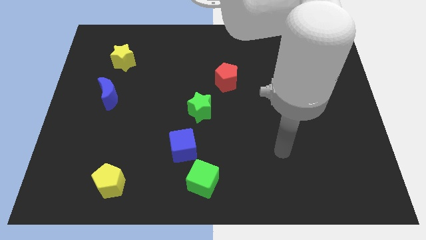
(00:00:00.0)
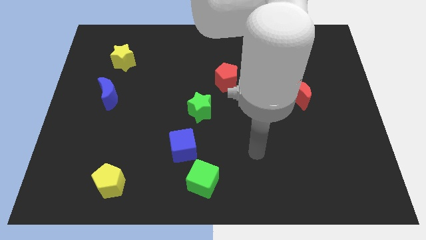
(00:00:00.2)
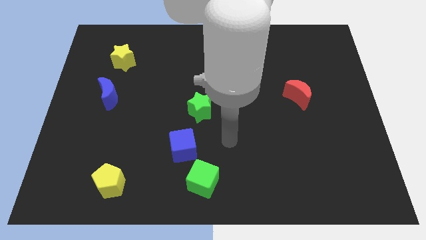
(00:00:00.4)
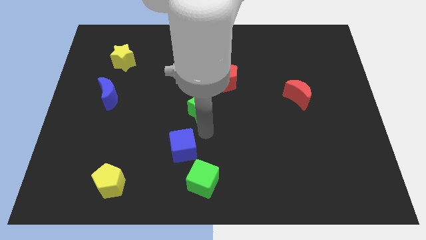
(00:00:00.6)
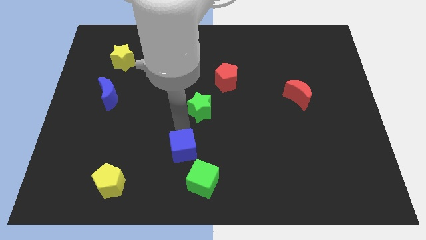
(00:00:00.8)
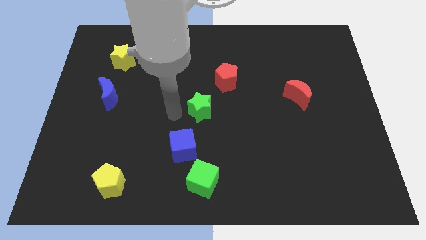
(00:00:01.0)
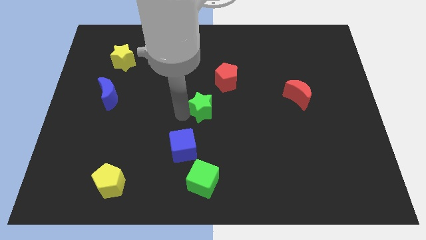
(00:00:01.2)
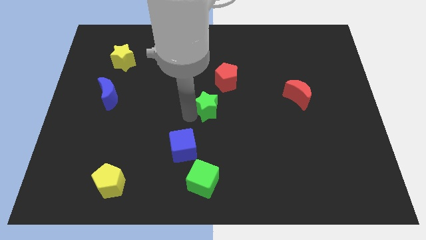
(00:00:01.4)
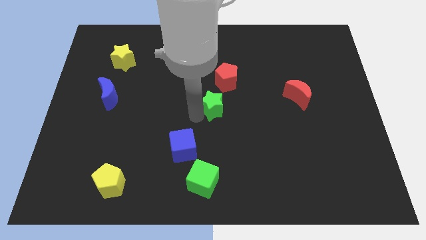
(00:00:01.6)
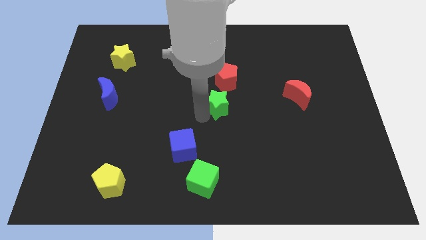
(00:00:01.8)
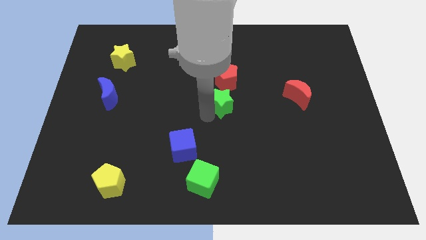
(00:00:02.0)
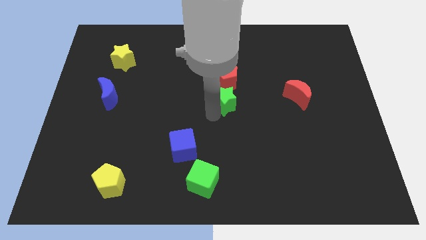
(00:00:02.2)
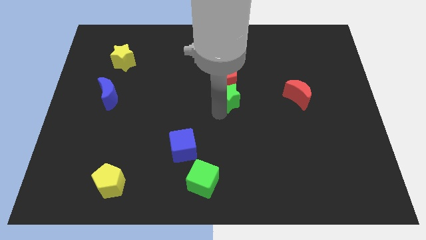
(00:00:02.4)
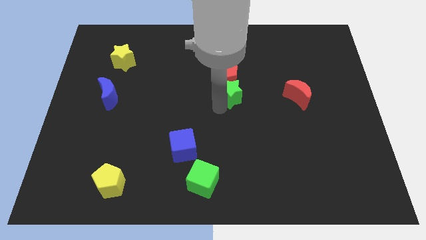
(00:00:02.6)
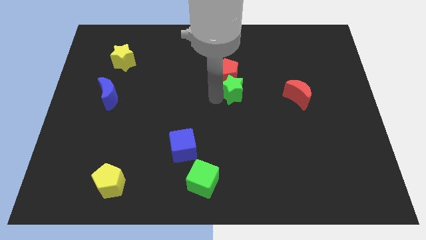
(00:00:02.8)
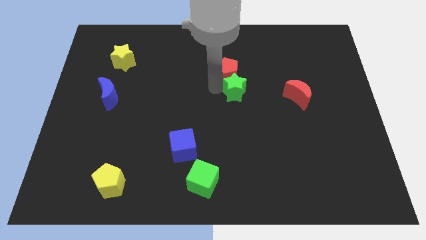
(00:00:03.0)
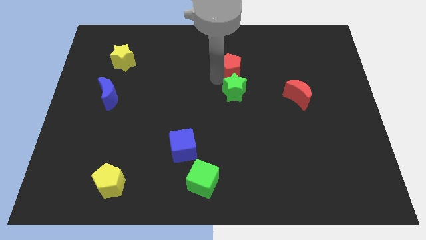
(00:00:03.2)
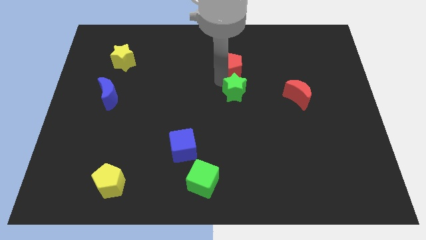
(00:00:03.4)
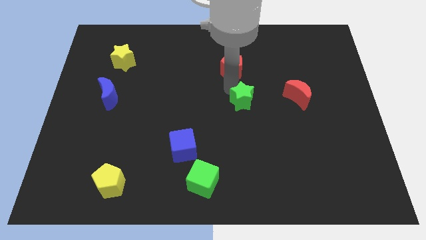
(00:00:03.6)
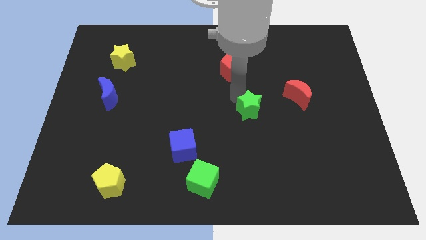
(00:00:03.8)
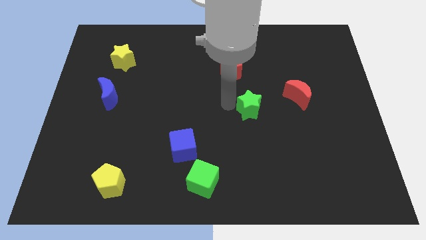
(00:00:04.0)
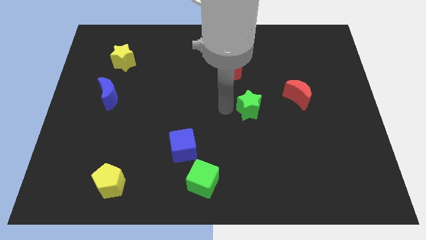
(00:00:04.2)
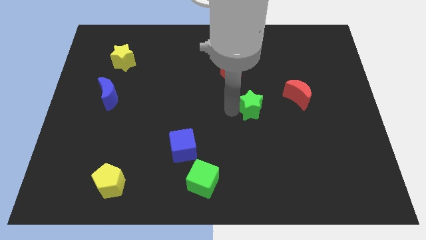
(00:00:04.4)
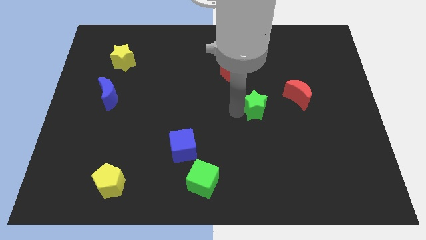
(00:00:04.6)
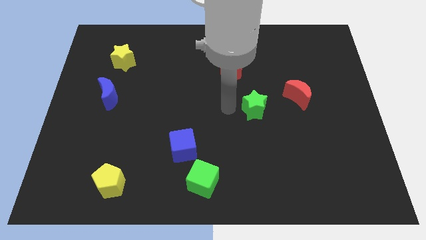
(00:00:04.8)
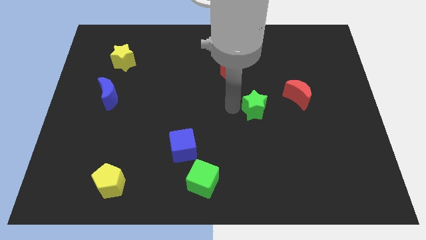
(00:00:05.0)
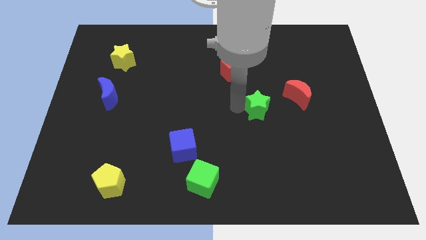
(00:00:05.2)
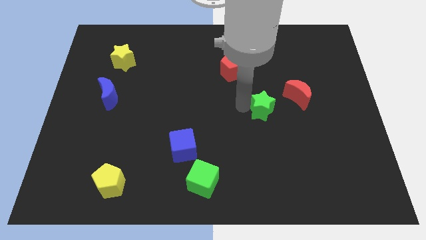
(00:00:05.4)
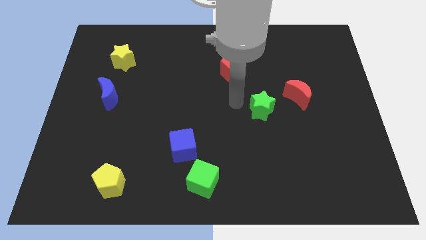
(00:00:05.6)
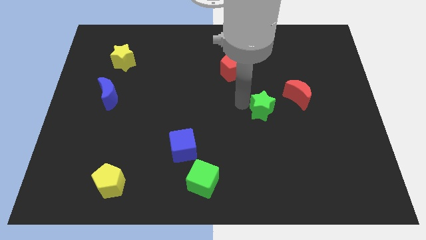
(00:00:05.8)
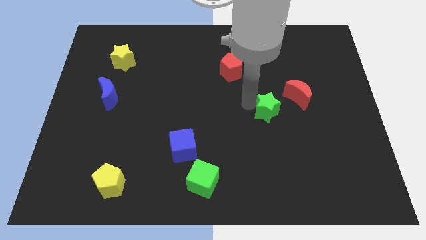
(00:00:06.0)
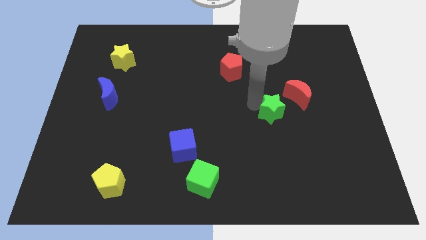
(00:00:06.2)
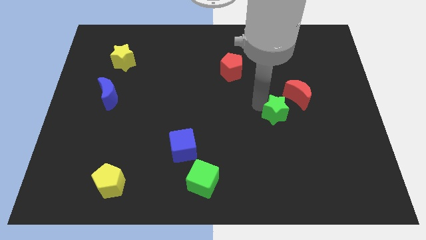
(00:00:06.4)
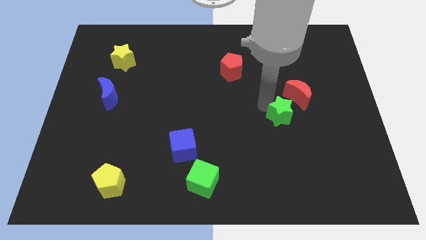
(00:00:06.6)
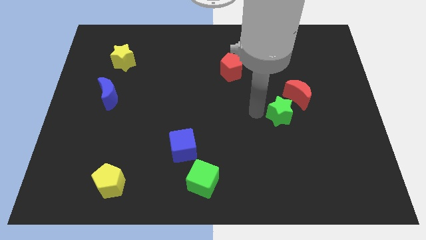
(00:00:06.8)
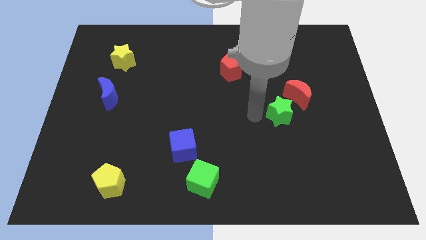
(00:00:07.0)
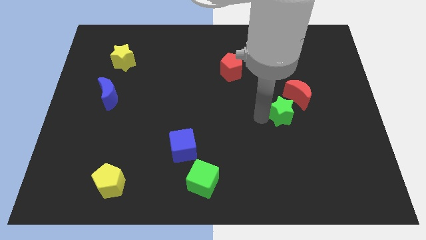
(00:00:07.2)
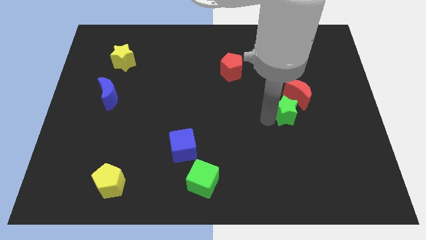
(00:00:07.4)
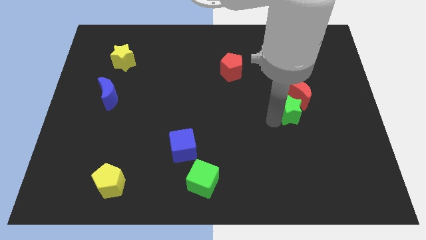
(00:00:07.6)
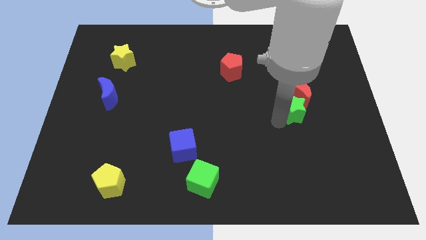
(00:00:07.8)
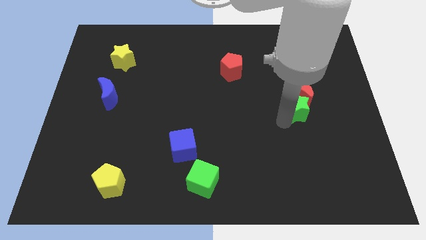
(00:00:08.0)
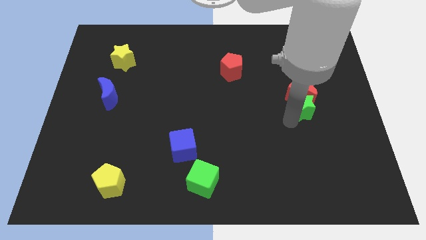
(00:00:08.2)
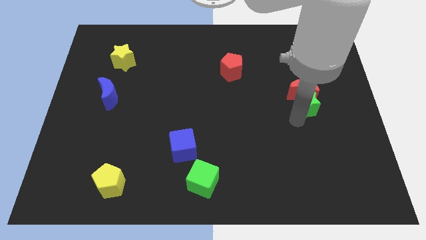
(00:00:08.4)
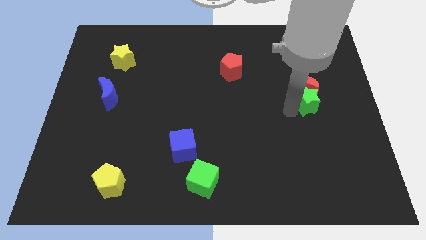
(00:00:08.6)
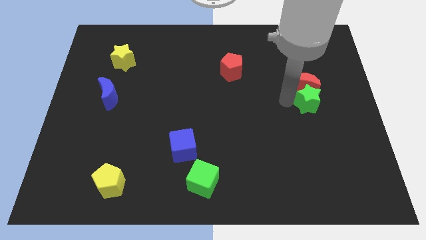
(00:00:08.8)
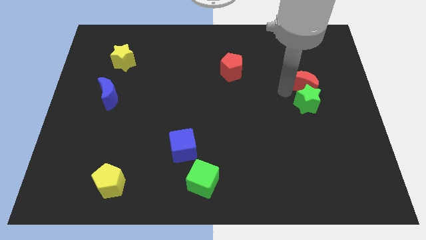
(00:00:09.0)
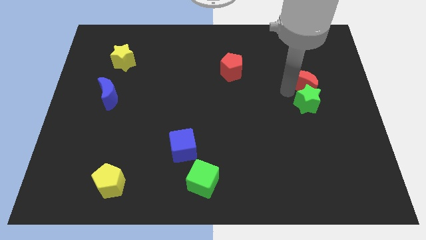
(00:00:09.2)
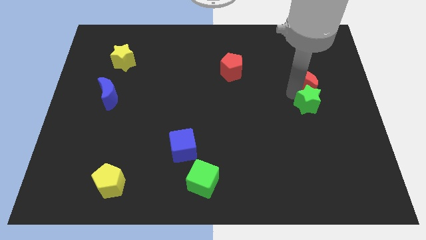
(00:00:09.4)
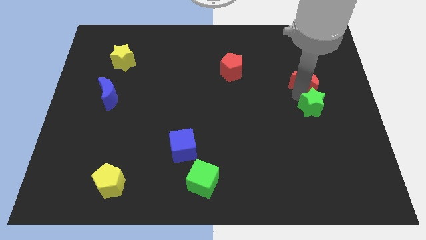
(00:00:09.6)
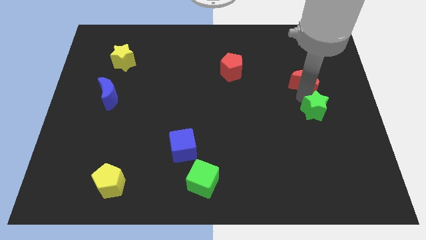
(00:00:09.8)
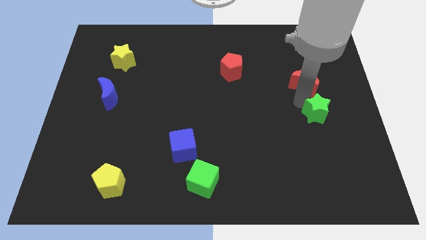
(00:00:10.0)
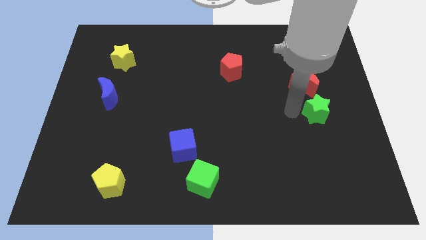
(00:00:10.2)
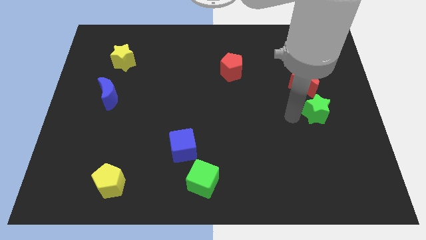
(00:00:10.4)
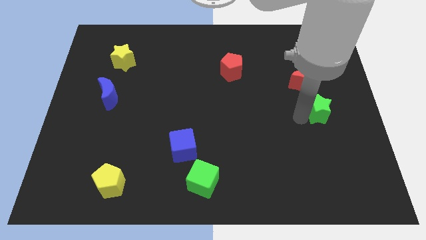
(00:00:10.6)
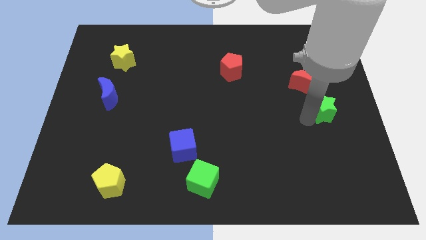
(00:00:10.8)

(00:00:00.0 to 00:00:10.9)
slide the green star to the right side

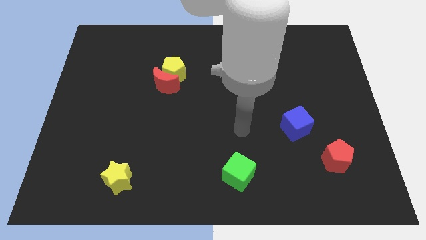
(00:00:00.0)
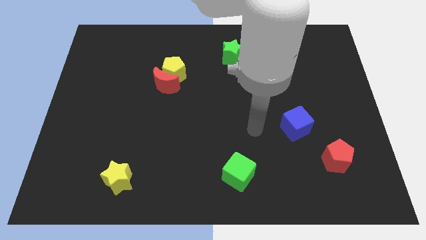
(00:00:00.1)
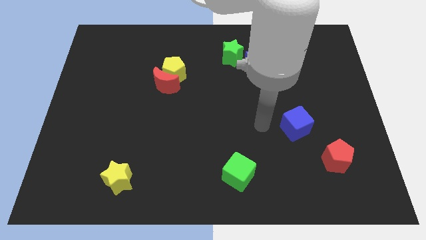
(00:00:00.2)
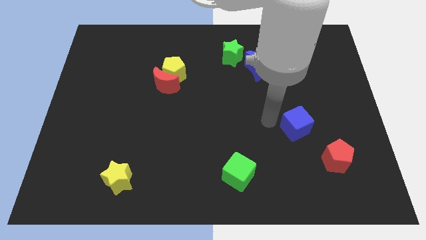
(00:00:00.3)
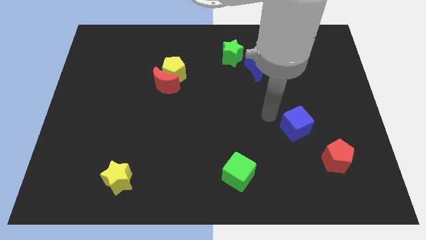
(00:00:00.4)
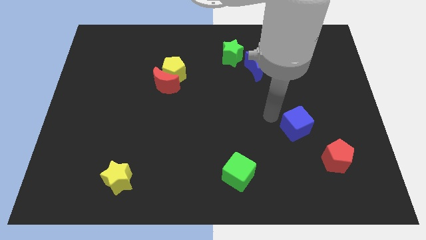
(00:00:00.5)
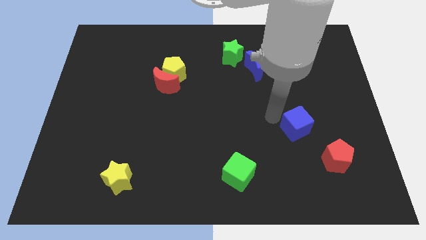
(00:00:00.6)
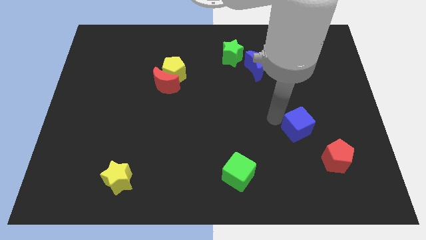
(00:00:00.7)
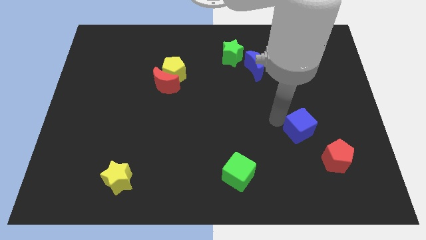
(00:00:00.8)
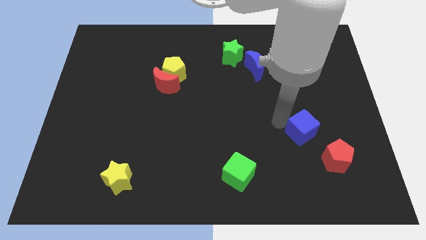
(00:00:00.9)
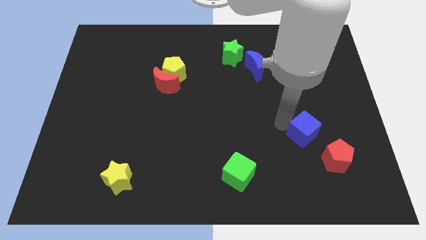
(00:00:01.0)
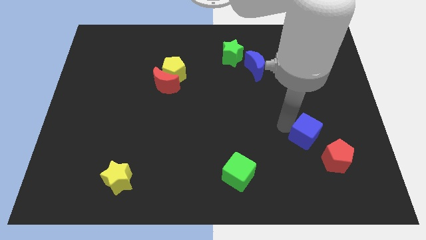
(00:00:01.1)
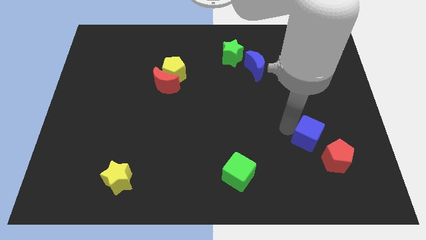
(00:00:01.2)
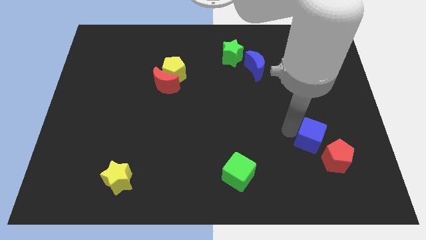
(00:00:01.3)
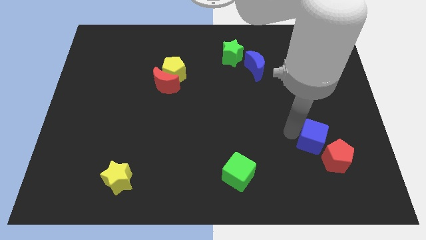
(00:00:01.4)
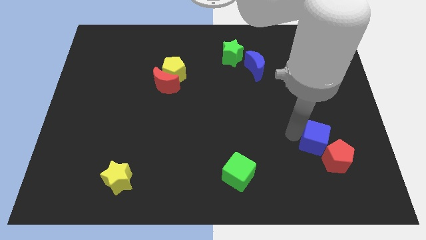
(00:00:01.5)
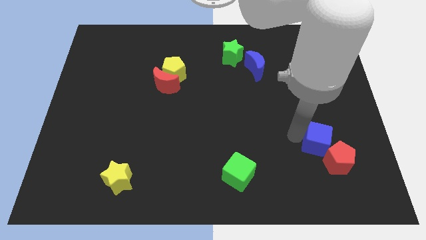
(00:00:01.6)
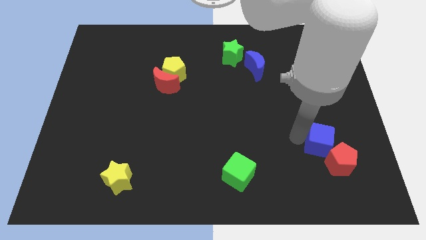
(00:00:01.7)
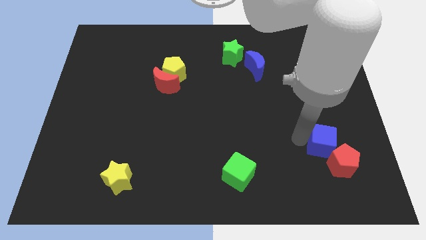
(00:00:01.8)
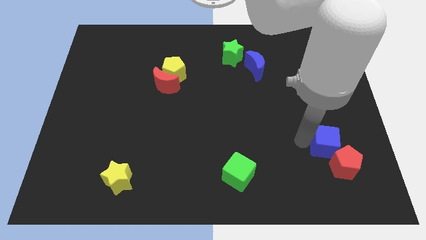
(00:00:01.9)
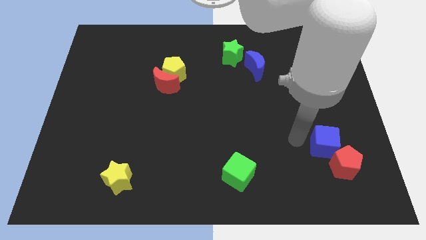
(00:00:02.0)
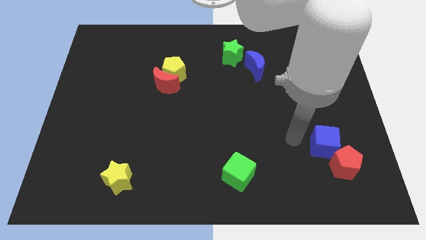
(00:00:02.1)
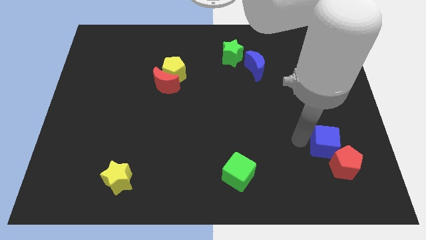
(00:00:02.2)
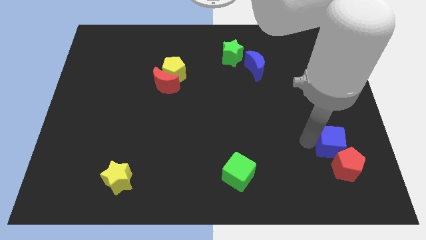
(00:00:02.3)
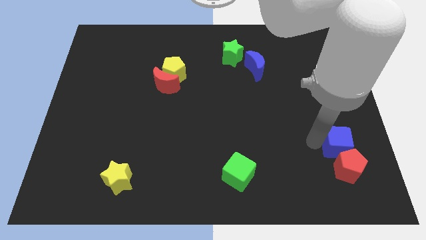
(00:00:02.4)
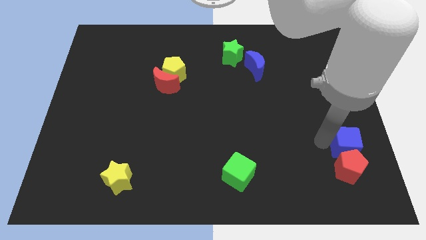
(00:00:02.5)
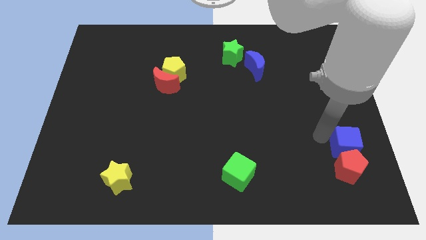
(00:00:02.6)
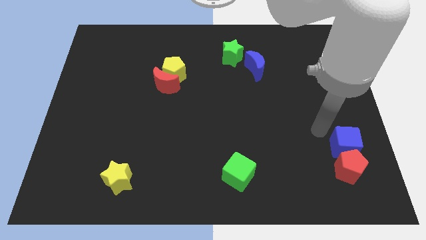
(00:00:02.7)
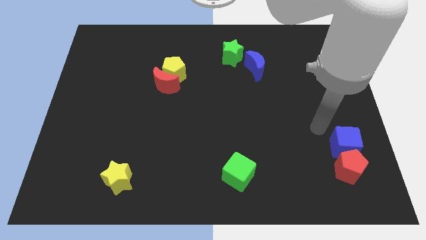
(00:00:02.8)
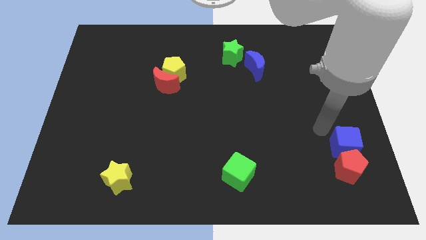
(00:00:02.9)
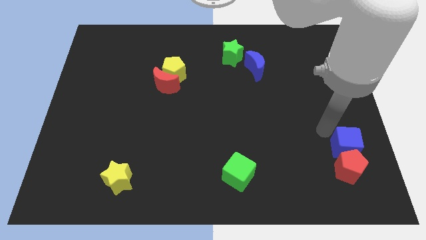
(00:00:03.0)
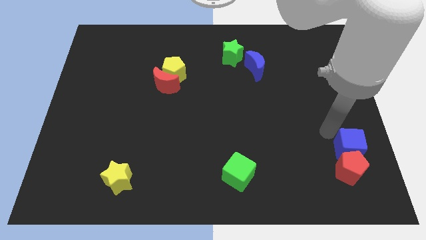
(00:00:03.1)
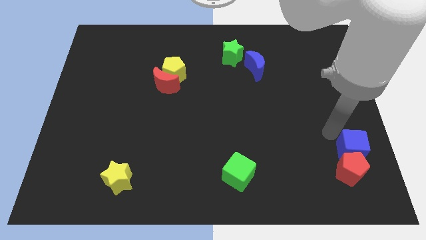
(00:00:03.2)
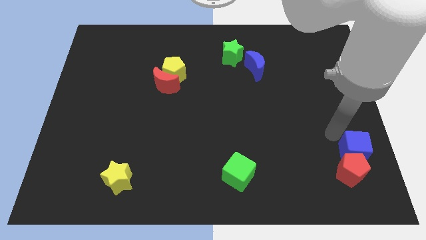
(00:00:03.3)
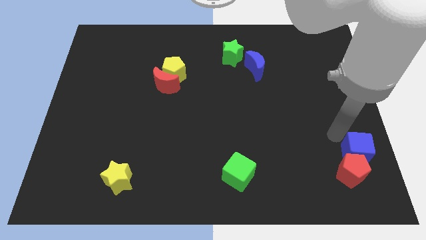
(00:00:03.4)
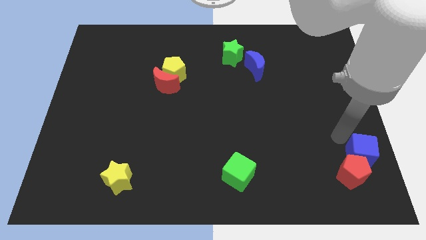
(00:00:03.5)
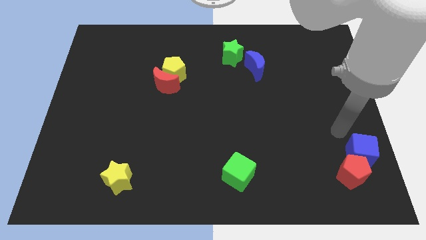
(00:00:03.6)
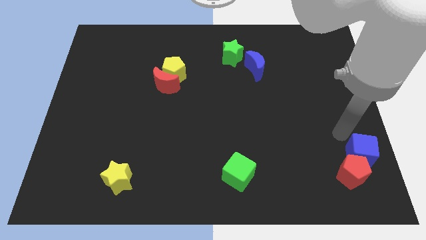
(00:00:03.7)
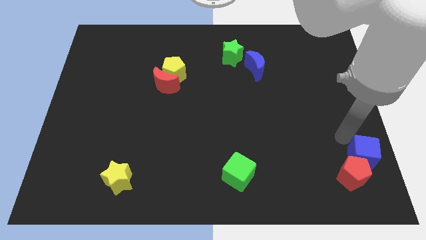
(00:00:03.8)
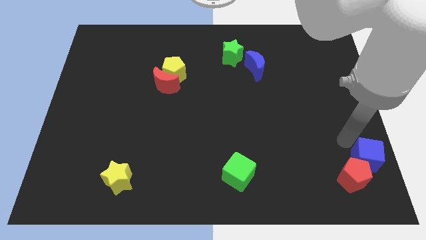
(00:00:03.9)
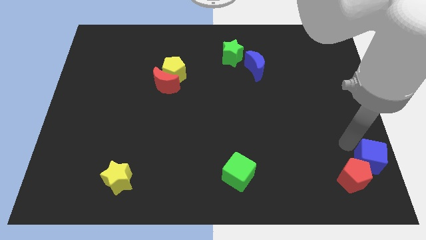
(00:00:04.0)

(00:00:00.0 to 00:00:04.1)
put the blue cube to the lower right corner
